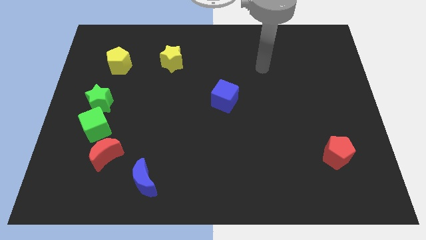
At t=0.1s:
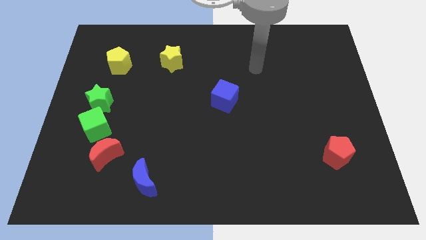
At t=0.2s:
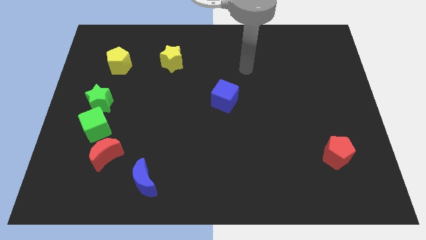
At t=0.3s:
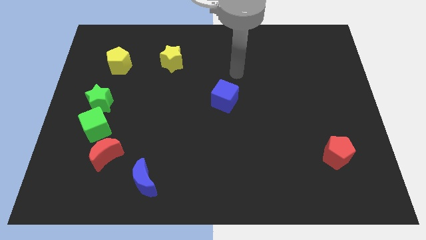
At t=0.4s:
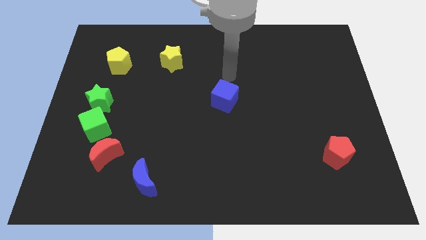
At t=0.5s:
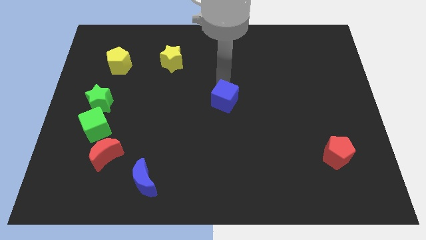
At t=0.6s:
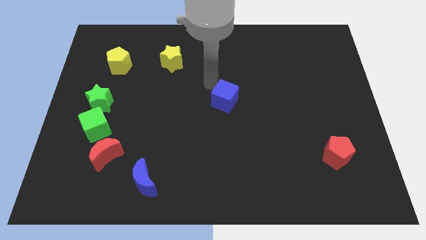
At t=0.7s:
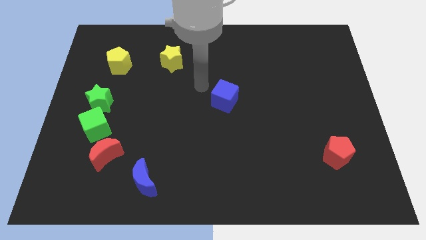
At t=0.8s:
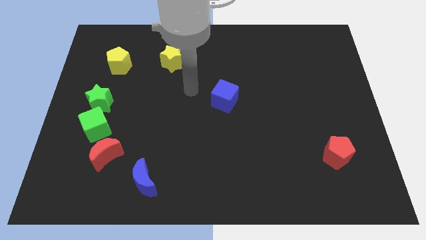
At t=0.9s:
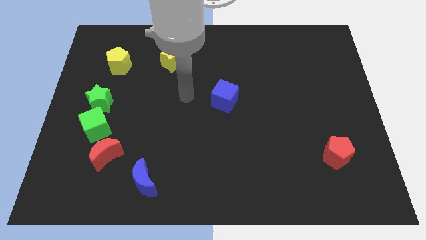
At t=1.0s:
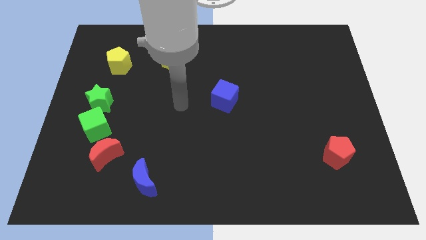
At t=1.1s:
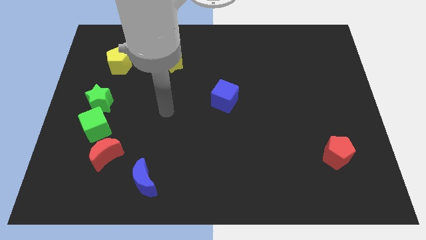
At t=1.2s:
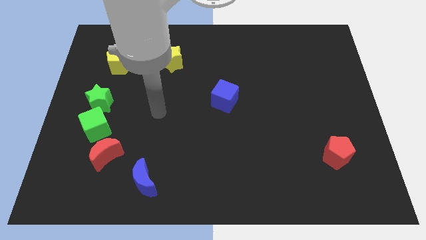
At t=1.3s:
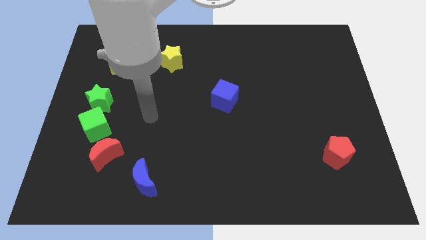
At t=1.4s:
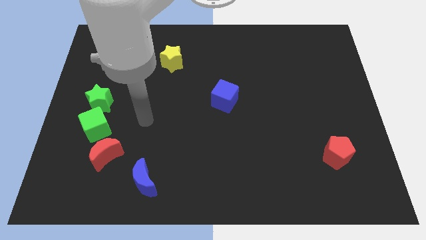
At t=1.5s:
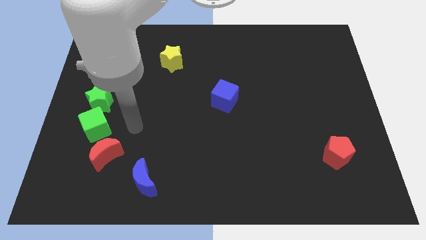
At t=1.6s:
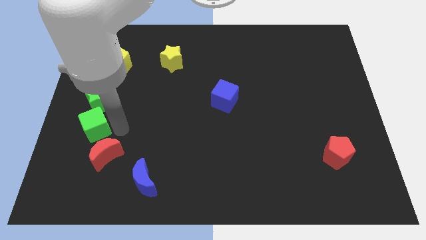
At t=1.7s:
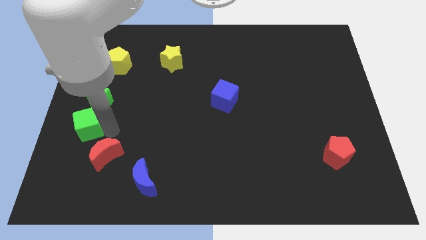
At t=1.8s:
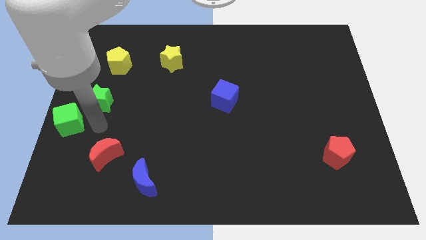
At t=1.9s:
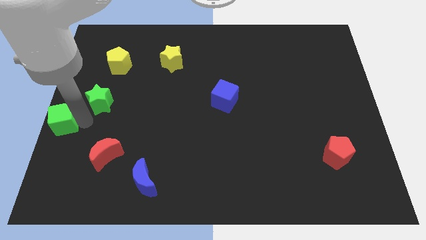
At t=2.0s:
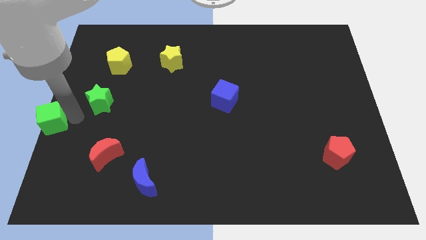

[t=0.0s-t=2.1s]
separate the green star from the green cube

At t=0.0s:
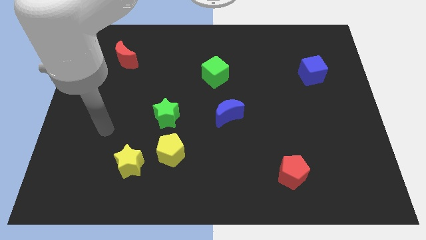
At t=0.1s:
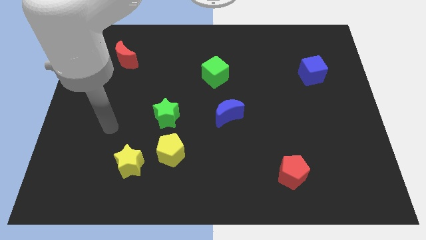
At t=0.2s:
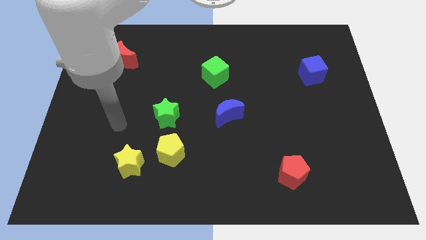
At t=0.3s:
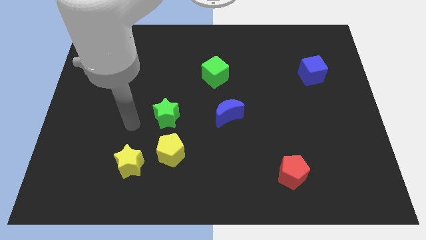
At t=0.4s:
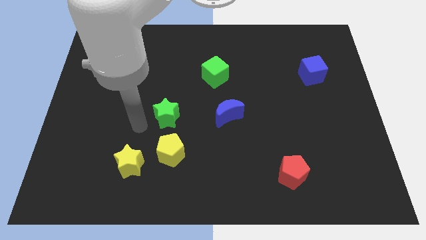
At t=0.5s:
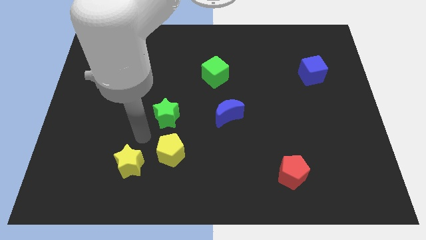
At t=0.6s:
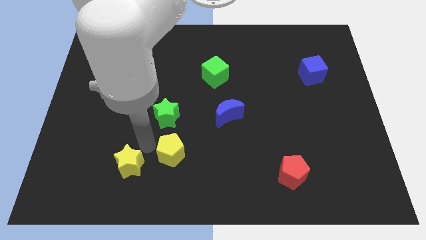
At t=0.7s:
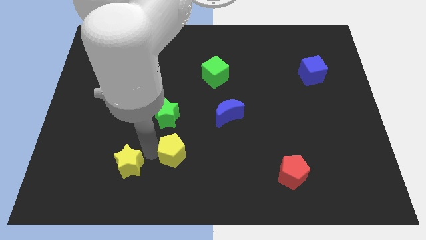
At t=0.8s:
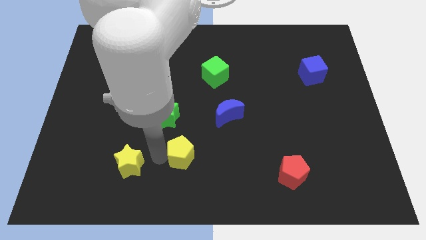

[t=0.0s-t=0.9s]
separate the yellow star from the yellow pentagon

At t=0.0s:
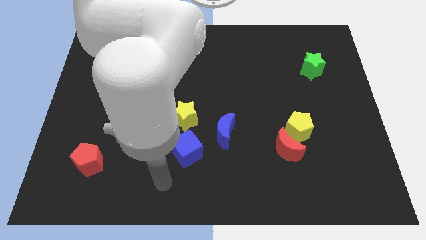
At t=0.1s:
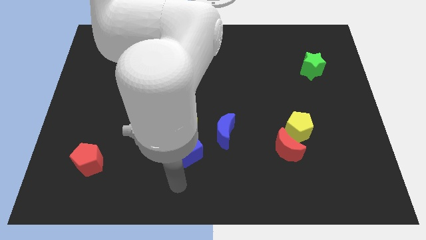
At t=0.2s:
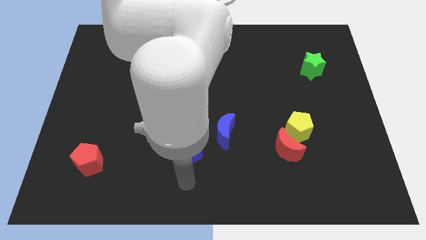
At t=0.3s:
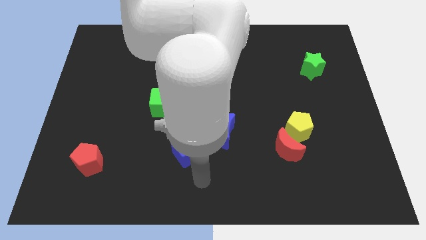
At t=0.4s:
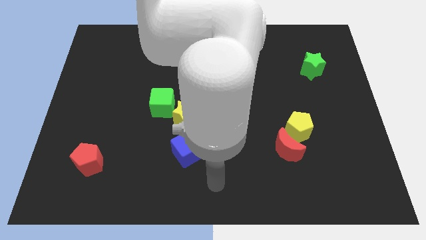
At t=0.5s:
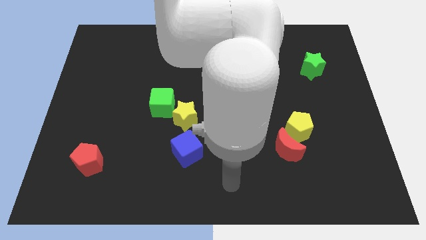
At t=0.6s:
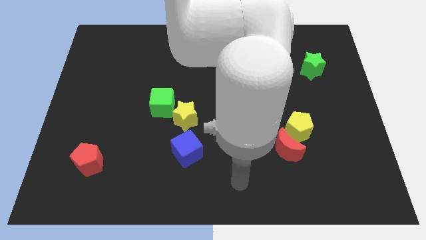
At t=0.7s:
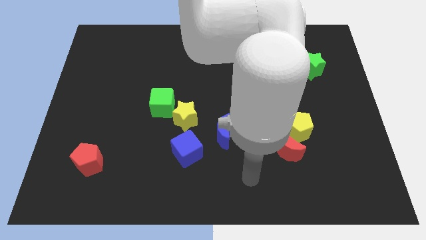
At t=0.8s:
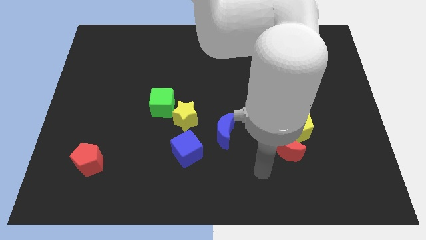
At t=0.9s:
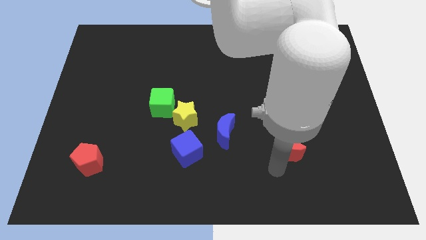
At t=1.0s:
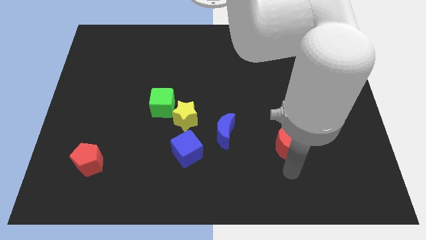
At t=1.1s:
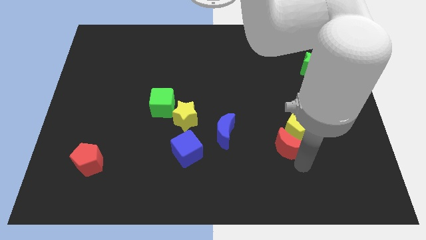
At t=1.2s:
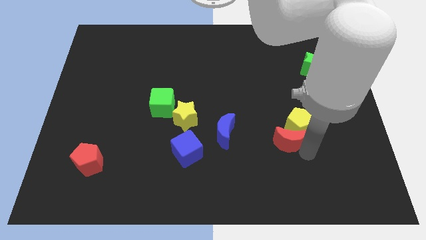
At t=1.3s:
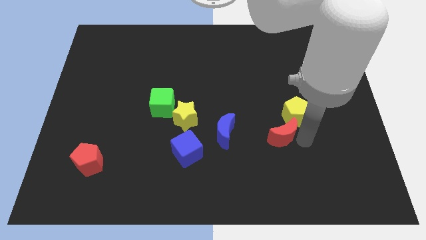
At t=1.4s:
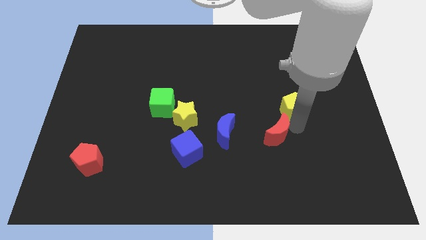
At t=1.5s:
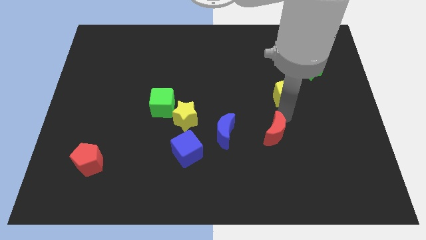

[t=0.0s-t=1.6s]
move the red moon away from the yellow pentagon

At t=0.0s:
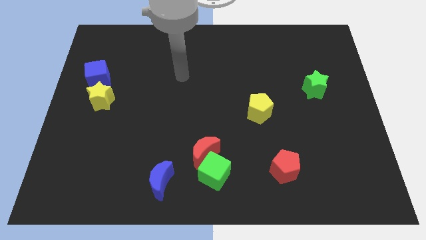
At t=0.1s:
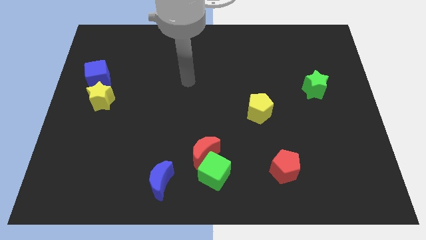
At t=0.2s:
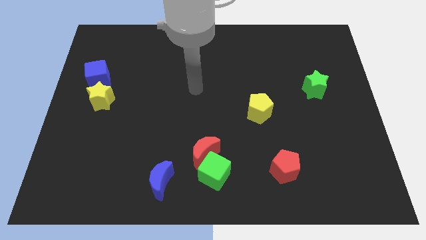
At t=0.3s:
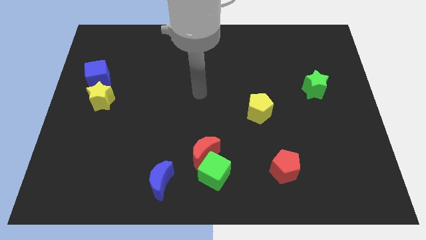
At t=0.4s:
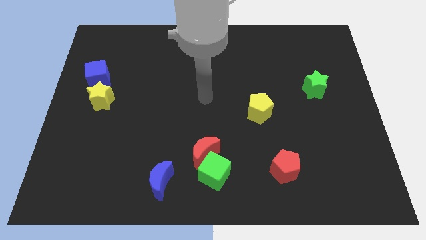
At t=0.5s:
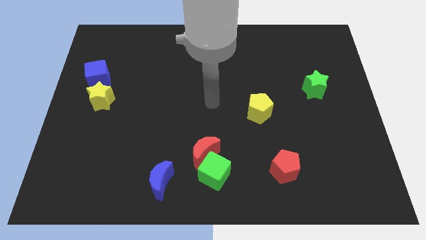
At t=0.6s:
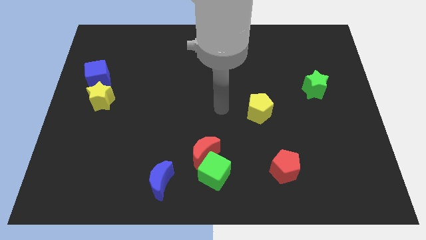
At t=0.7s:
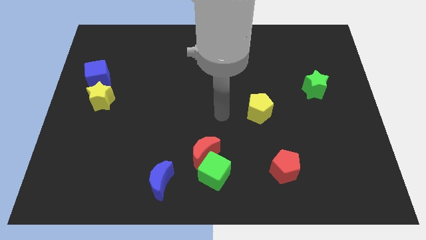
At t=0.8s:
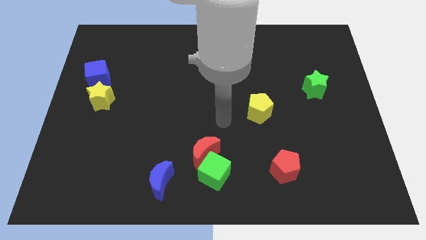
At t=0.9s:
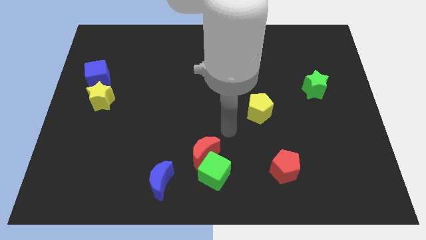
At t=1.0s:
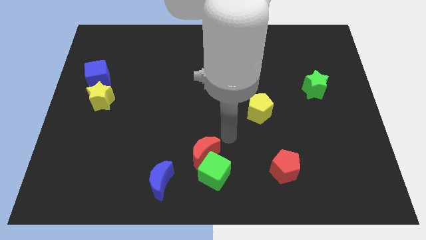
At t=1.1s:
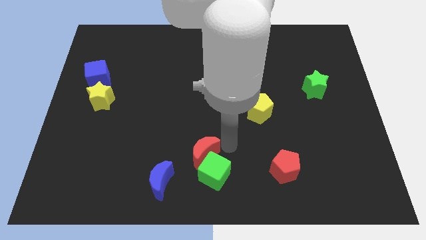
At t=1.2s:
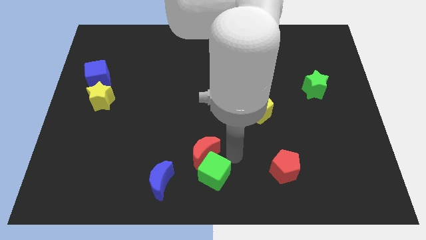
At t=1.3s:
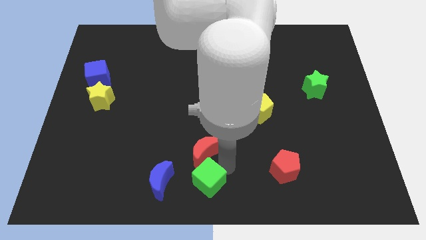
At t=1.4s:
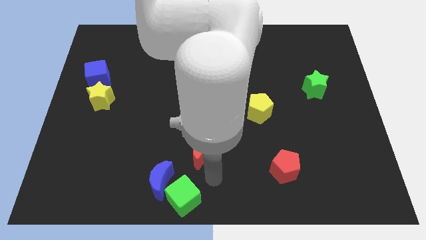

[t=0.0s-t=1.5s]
separate the red moon from the green cube

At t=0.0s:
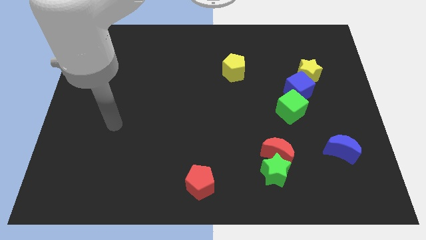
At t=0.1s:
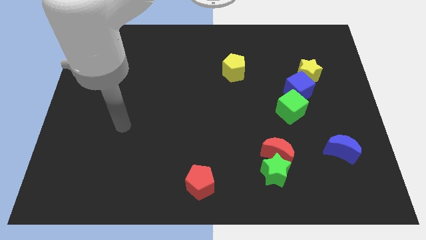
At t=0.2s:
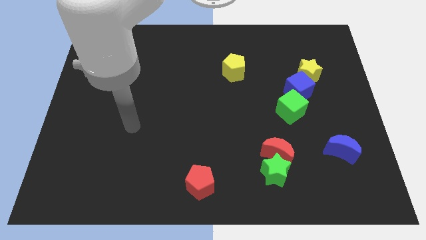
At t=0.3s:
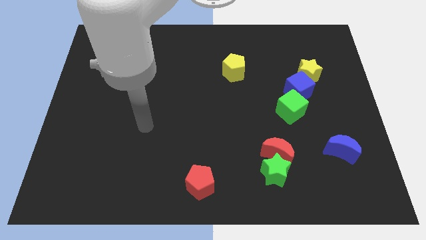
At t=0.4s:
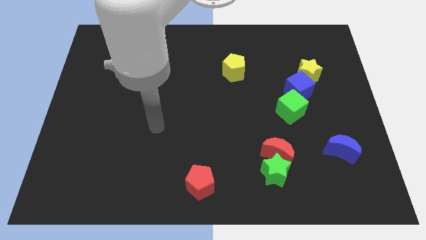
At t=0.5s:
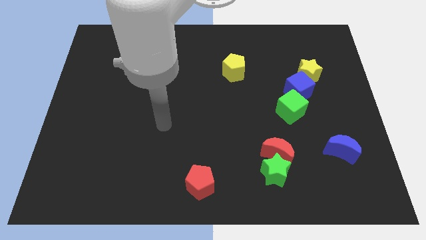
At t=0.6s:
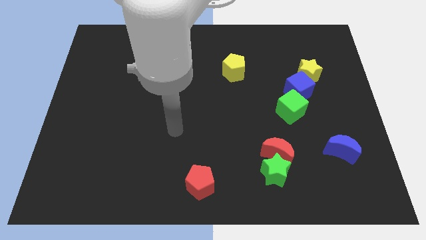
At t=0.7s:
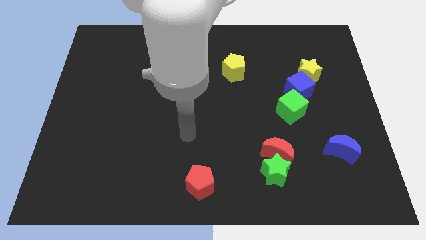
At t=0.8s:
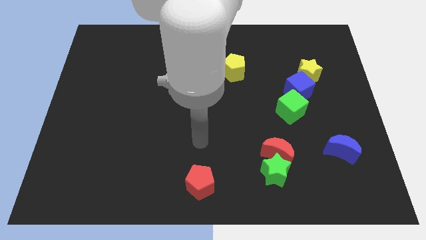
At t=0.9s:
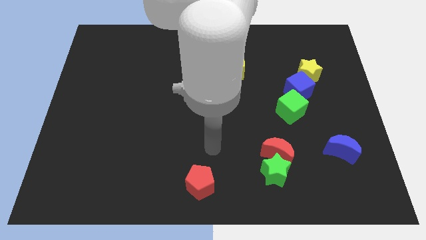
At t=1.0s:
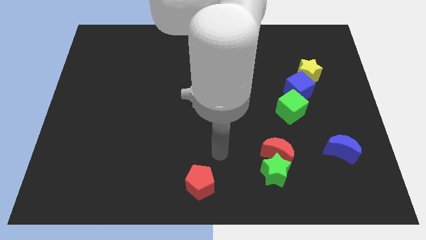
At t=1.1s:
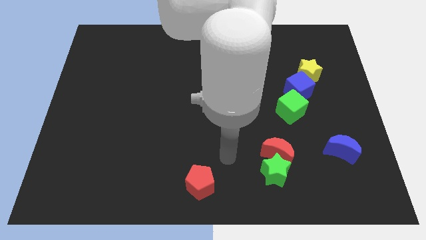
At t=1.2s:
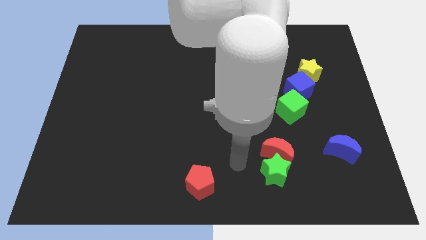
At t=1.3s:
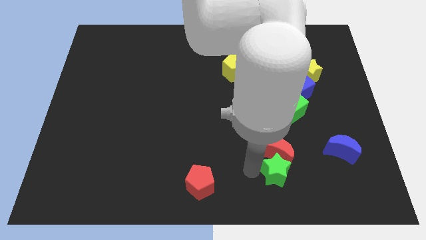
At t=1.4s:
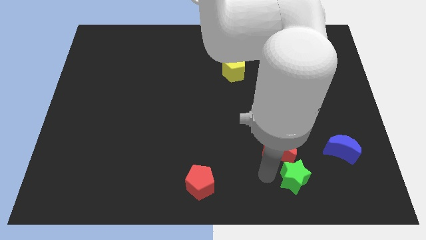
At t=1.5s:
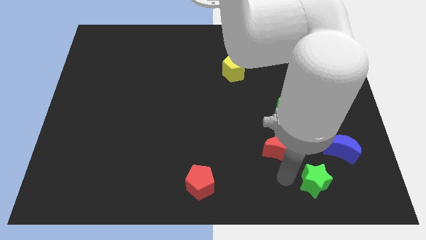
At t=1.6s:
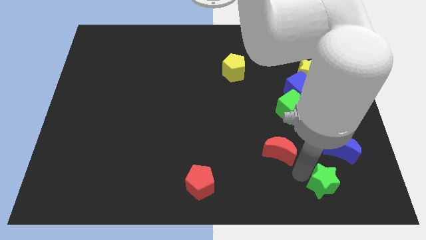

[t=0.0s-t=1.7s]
pull the red moon apart from the green star

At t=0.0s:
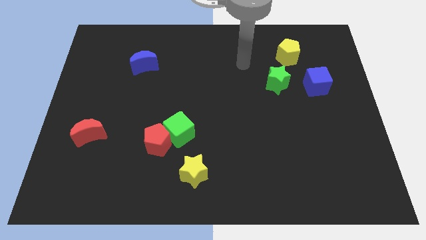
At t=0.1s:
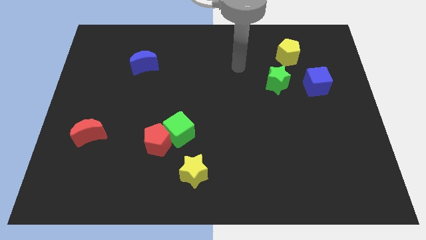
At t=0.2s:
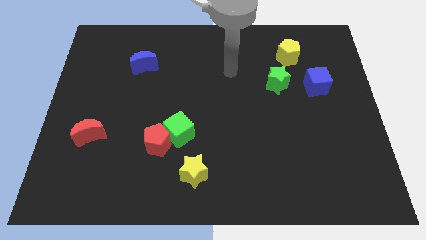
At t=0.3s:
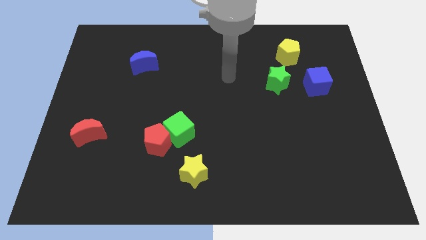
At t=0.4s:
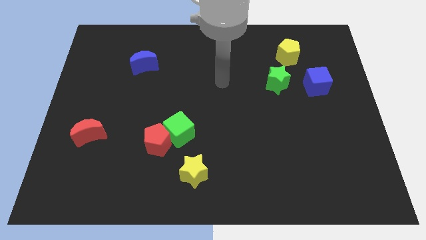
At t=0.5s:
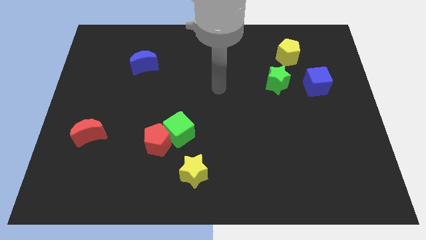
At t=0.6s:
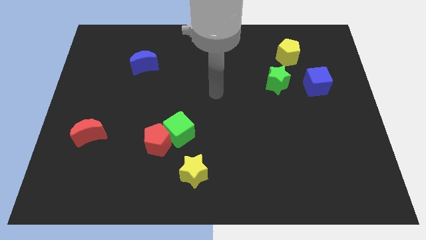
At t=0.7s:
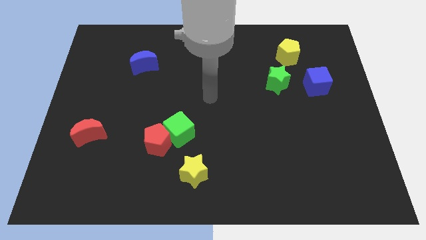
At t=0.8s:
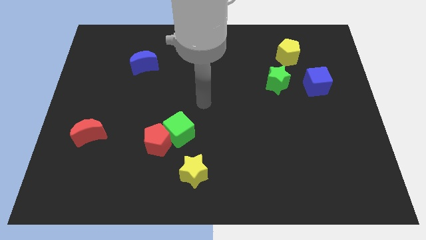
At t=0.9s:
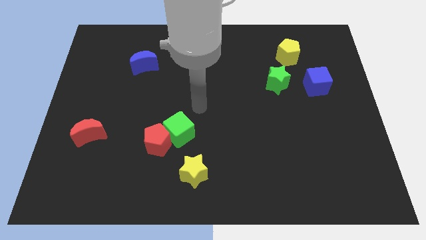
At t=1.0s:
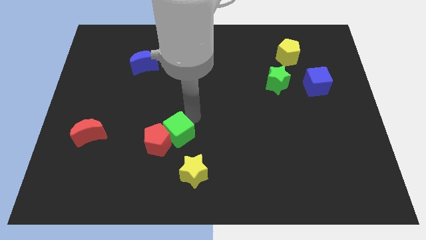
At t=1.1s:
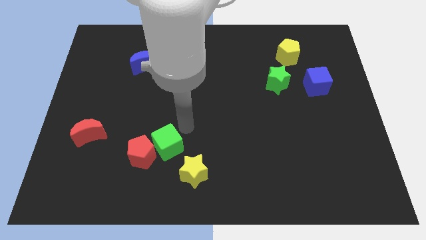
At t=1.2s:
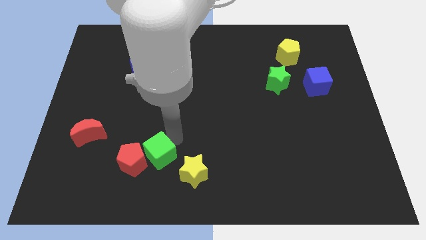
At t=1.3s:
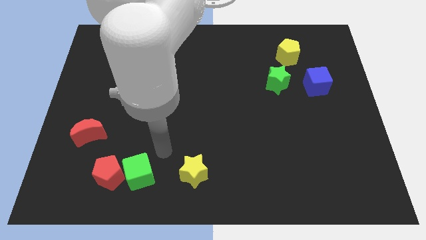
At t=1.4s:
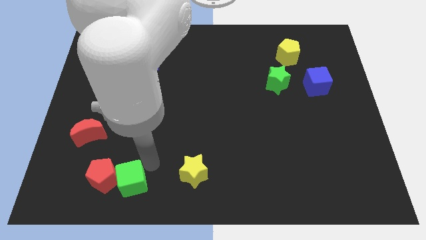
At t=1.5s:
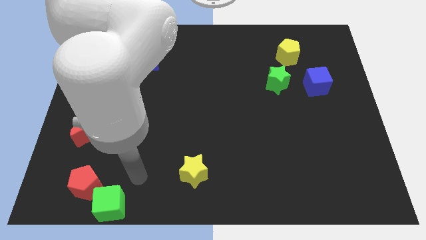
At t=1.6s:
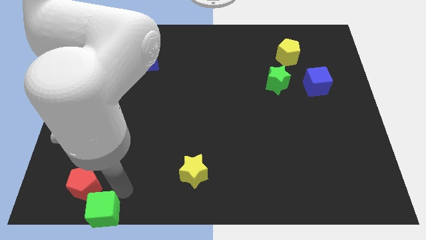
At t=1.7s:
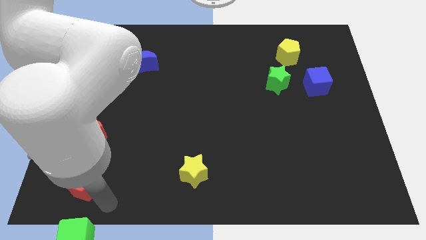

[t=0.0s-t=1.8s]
pull the red pentagon apart from the green cube
